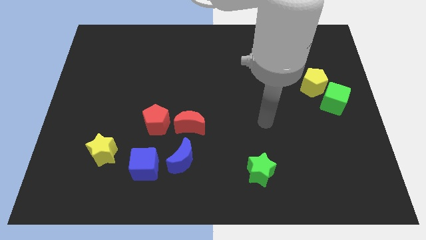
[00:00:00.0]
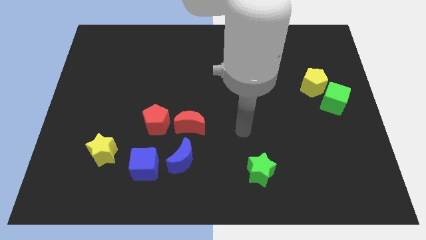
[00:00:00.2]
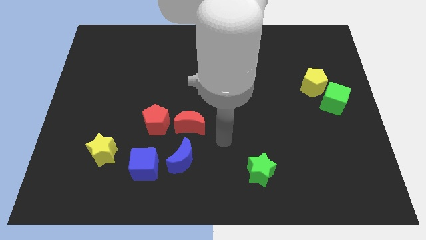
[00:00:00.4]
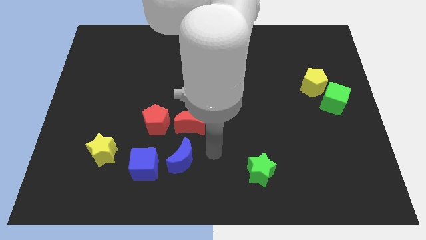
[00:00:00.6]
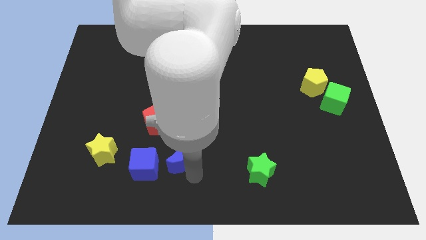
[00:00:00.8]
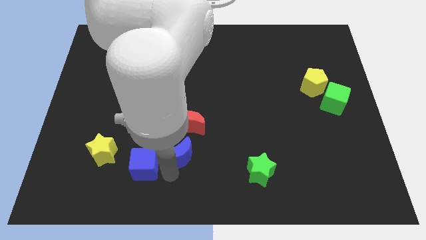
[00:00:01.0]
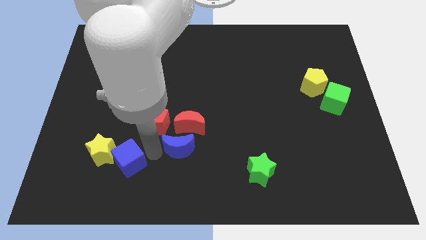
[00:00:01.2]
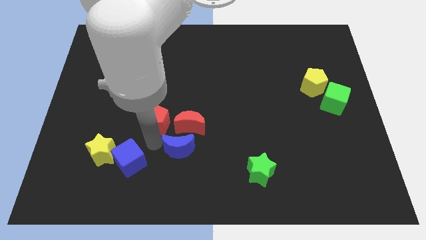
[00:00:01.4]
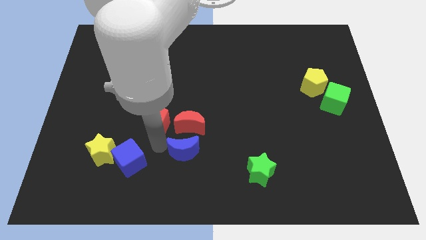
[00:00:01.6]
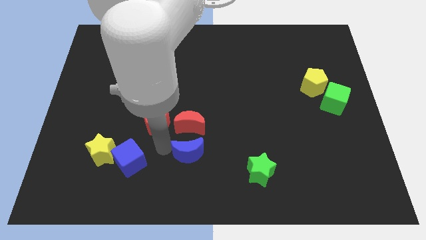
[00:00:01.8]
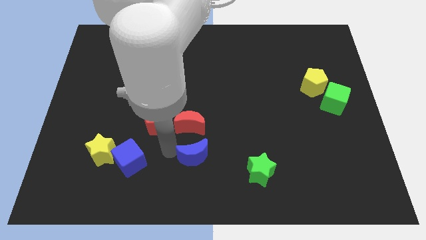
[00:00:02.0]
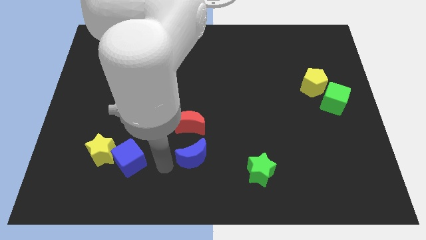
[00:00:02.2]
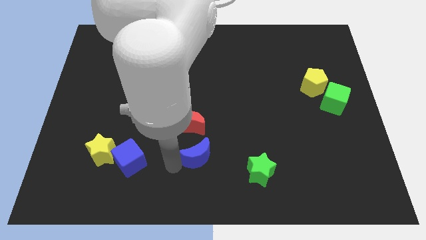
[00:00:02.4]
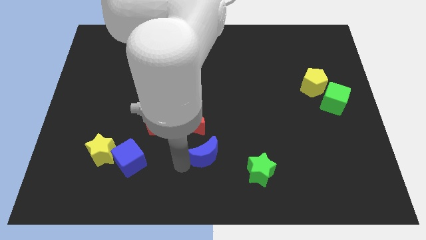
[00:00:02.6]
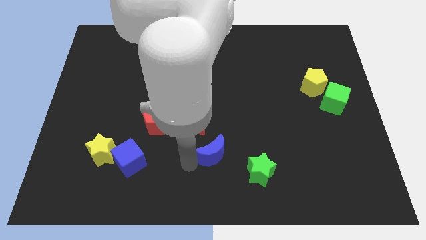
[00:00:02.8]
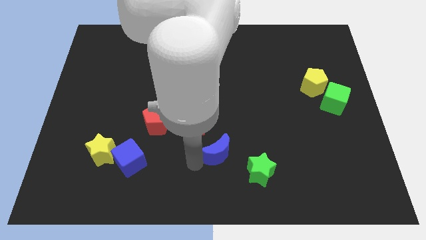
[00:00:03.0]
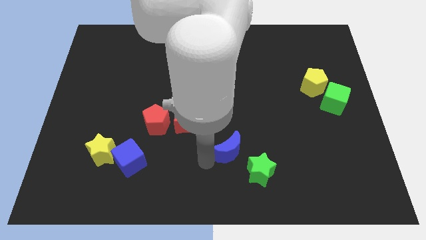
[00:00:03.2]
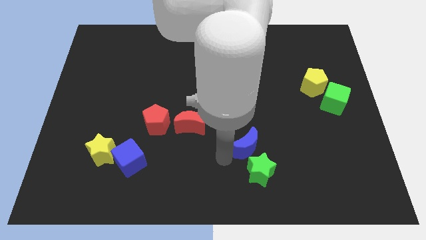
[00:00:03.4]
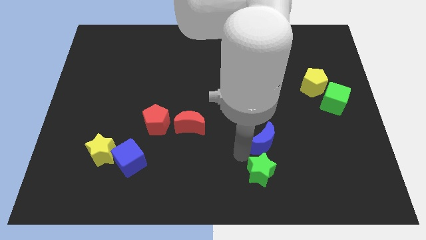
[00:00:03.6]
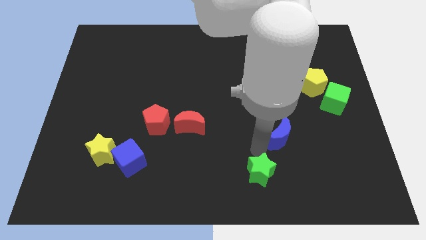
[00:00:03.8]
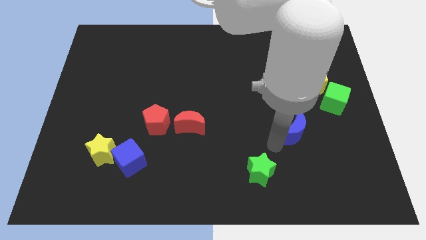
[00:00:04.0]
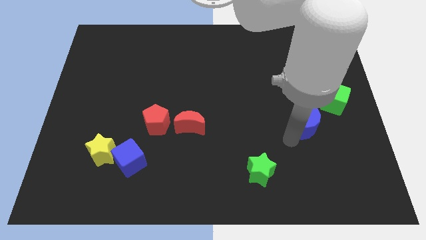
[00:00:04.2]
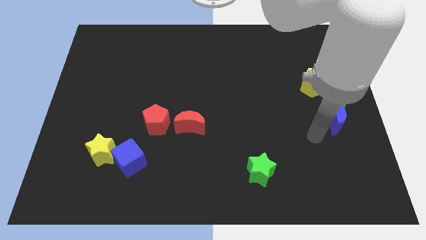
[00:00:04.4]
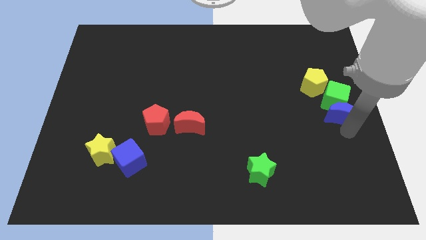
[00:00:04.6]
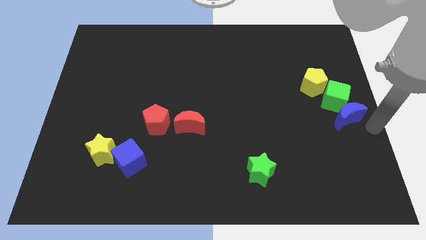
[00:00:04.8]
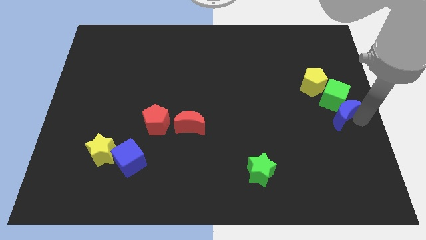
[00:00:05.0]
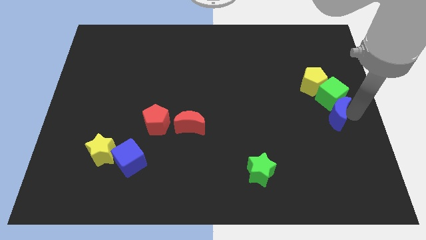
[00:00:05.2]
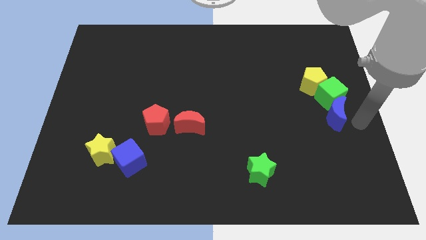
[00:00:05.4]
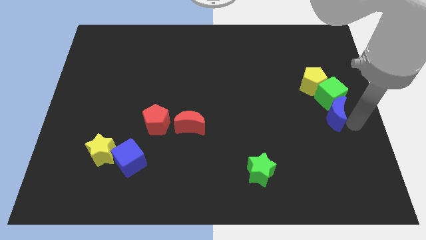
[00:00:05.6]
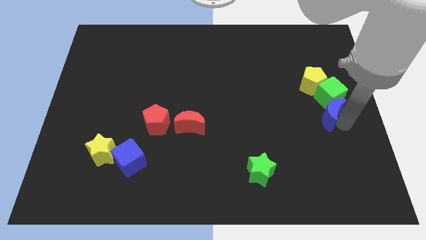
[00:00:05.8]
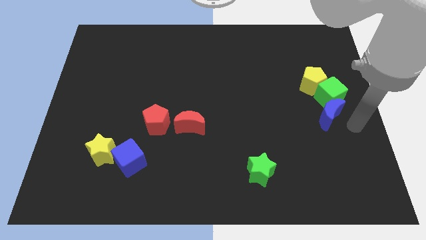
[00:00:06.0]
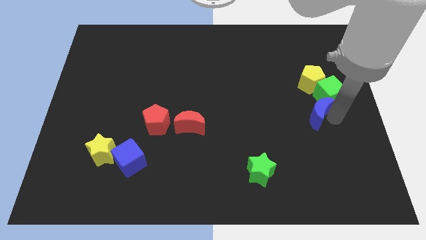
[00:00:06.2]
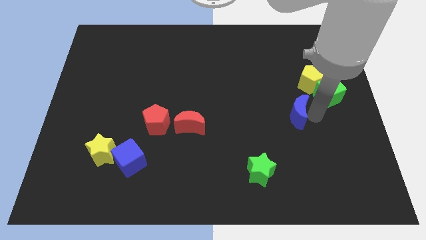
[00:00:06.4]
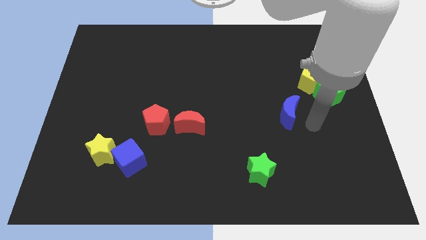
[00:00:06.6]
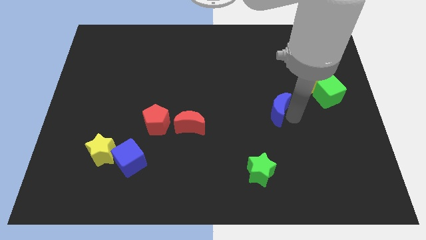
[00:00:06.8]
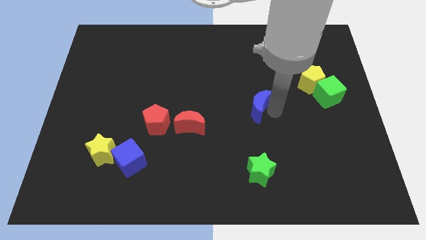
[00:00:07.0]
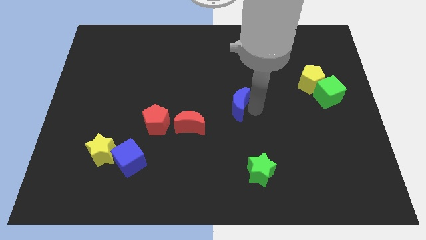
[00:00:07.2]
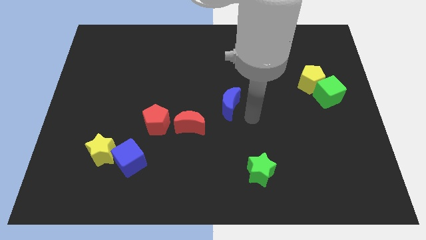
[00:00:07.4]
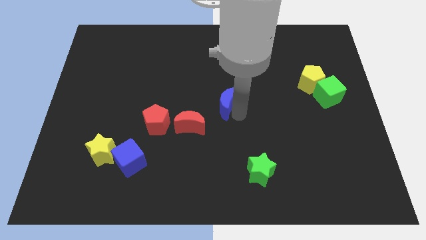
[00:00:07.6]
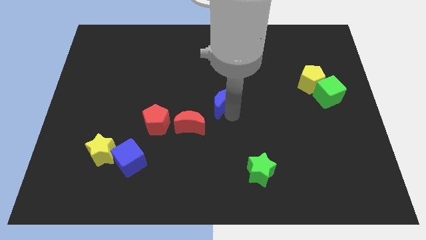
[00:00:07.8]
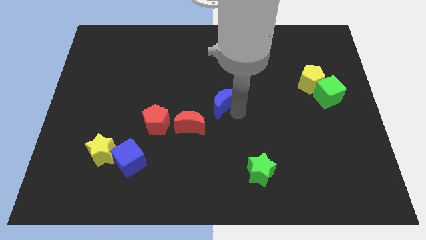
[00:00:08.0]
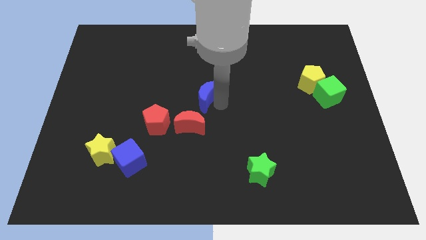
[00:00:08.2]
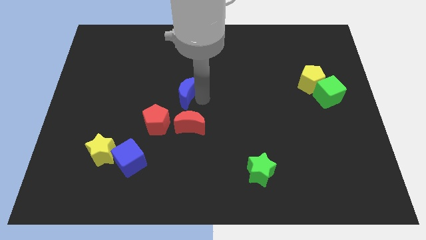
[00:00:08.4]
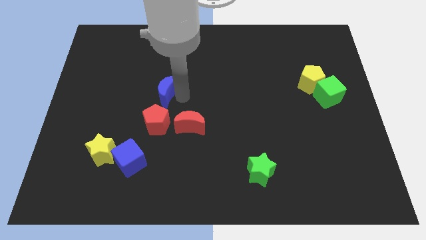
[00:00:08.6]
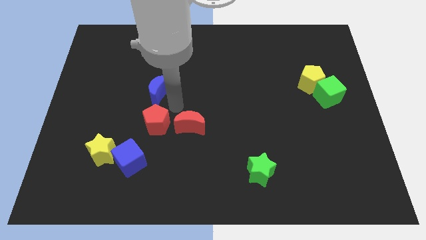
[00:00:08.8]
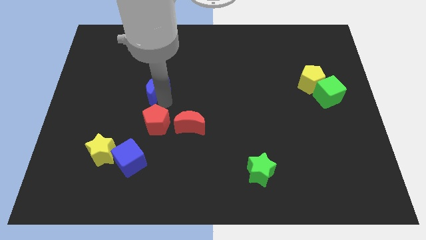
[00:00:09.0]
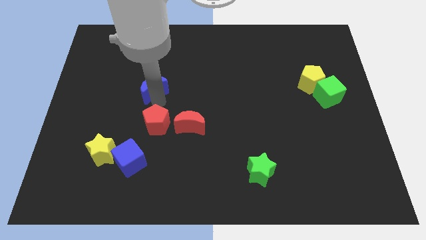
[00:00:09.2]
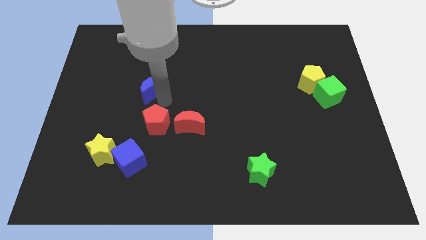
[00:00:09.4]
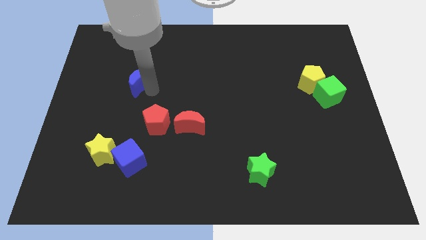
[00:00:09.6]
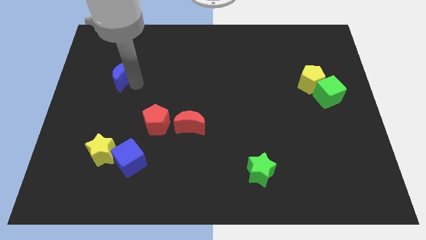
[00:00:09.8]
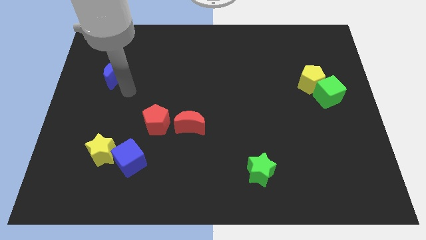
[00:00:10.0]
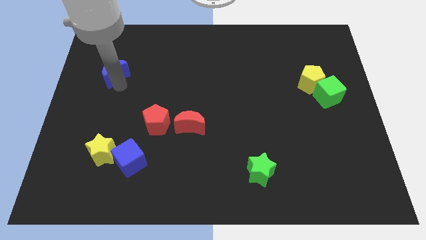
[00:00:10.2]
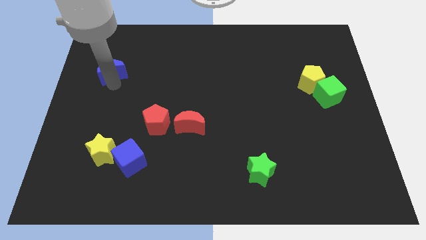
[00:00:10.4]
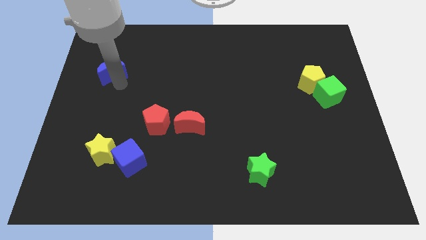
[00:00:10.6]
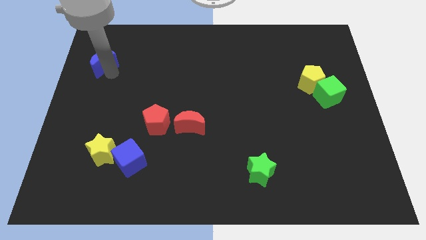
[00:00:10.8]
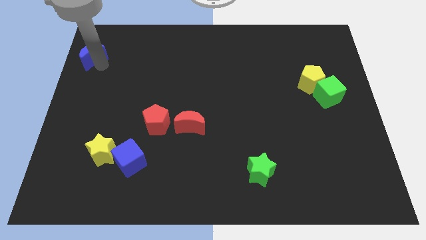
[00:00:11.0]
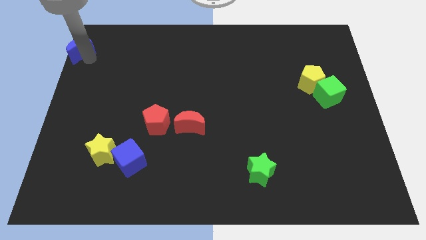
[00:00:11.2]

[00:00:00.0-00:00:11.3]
push the blue moon to the top left

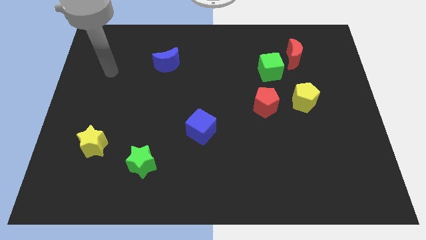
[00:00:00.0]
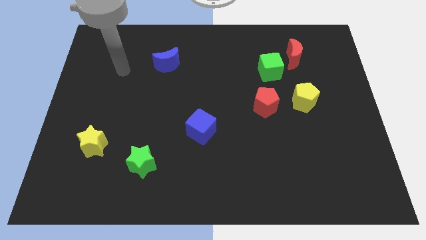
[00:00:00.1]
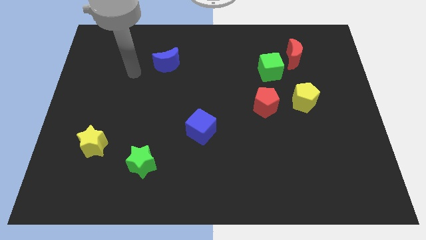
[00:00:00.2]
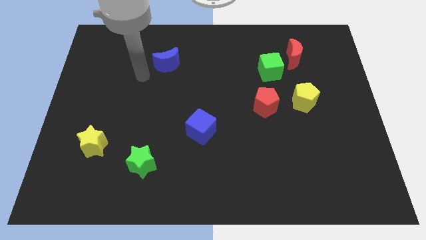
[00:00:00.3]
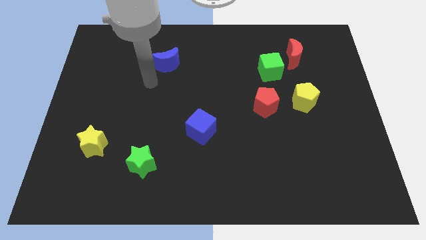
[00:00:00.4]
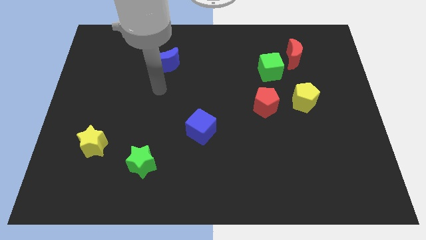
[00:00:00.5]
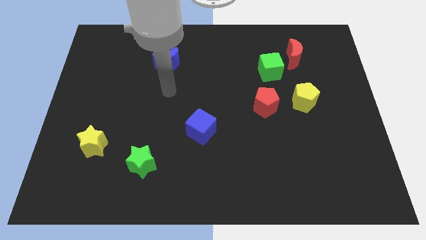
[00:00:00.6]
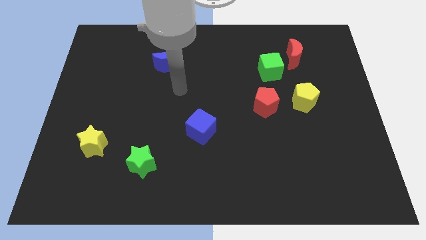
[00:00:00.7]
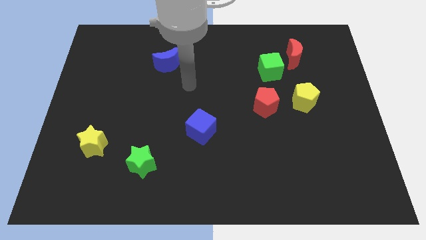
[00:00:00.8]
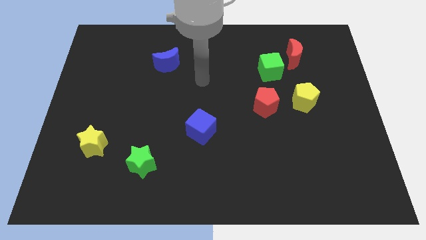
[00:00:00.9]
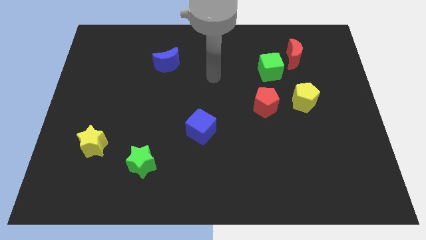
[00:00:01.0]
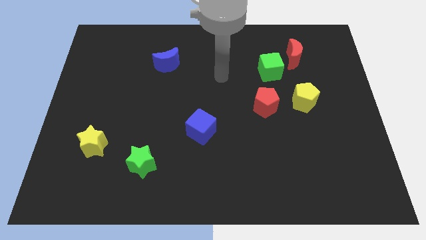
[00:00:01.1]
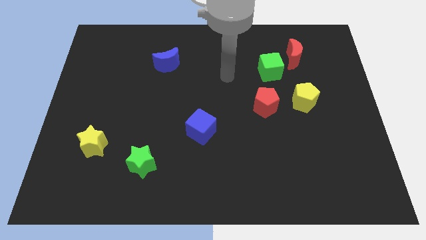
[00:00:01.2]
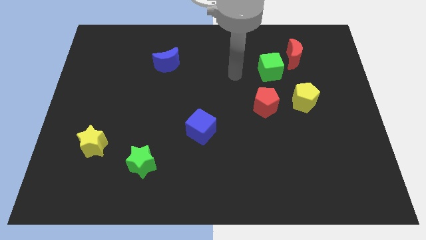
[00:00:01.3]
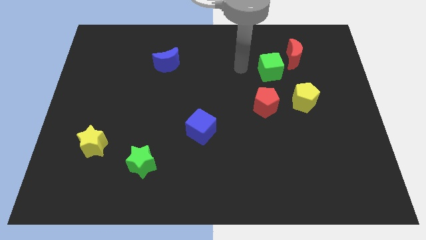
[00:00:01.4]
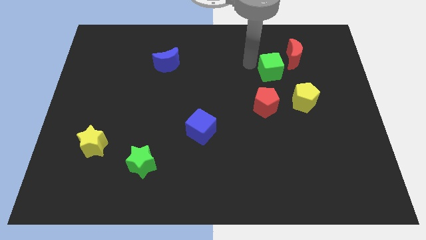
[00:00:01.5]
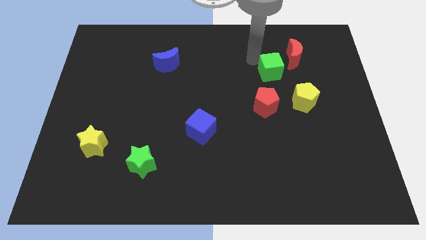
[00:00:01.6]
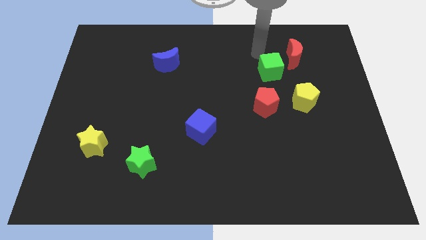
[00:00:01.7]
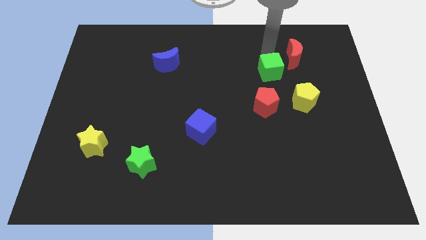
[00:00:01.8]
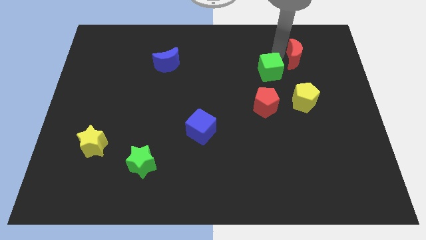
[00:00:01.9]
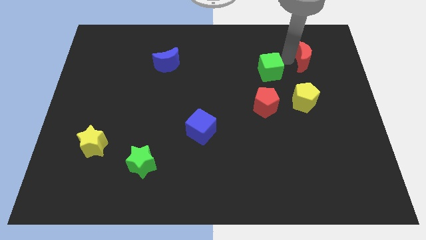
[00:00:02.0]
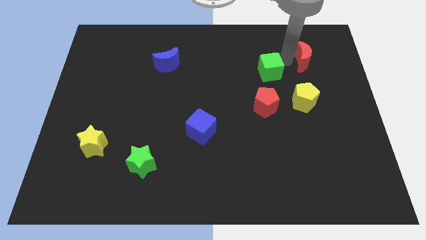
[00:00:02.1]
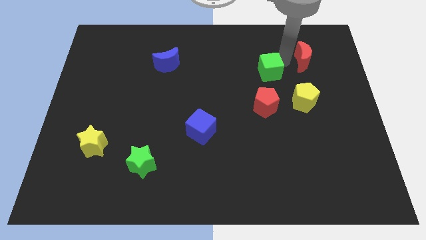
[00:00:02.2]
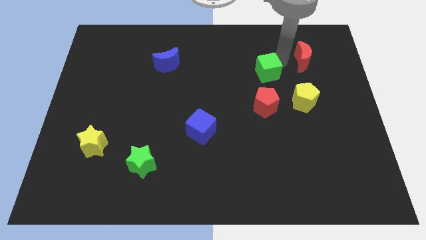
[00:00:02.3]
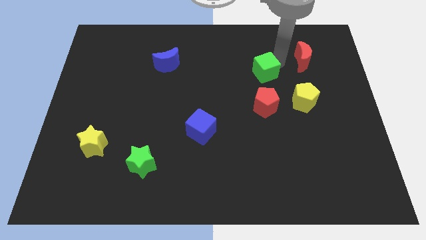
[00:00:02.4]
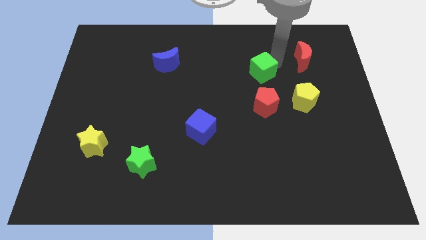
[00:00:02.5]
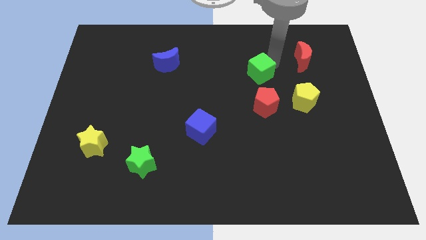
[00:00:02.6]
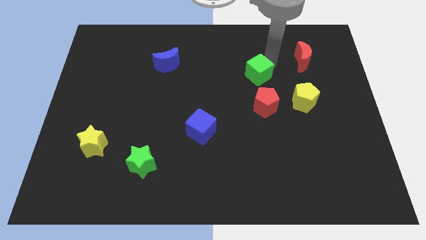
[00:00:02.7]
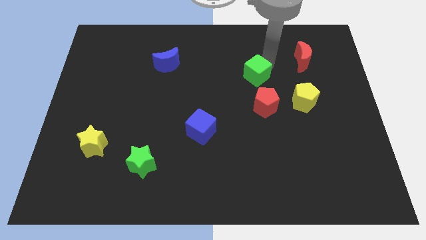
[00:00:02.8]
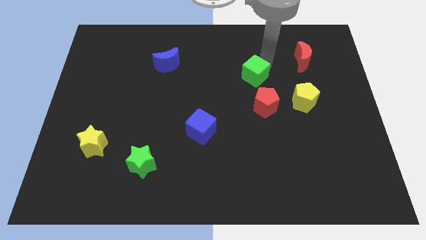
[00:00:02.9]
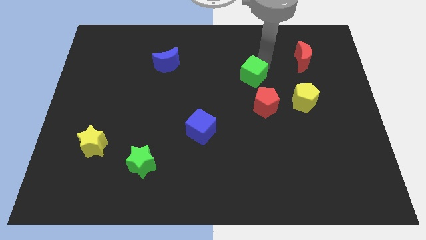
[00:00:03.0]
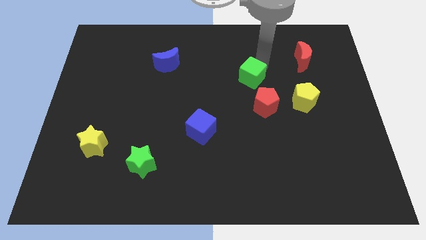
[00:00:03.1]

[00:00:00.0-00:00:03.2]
put the green cube to the center of the board
